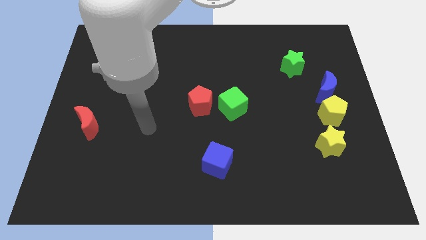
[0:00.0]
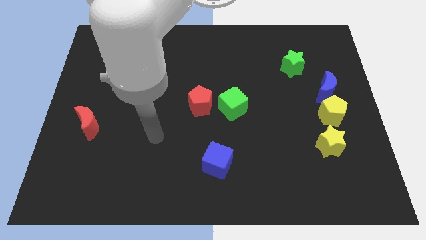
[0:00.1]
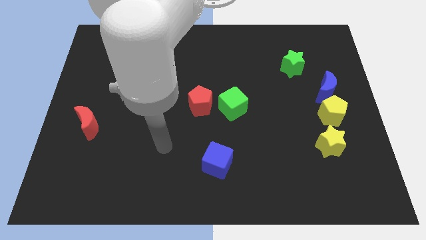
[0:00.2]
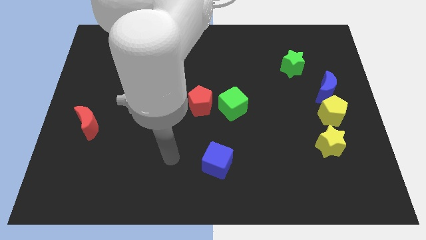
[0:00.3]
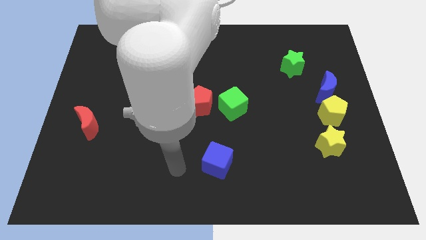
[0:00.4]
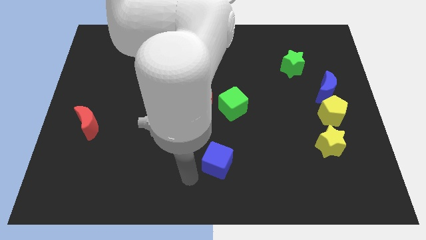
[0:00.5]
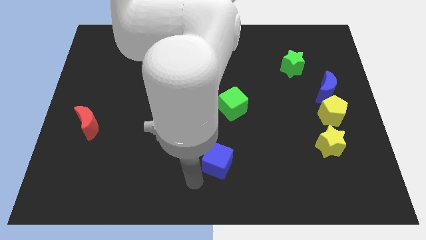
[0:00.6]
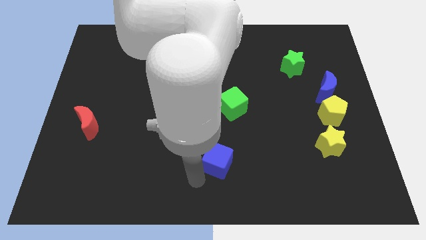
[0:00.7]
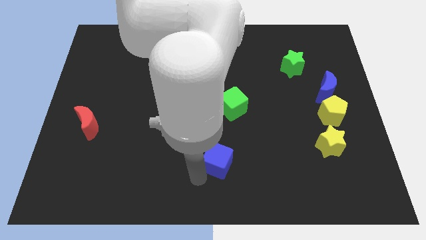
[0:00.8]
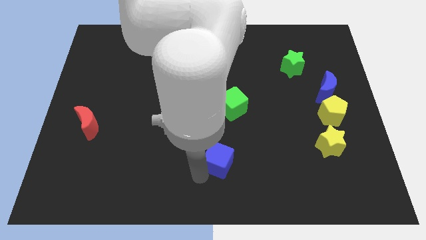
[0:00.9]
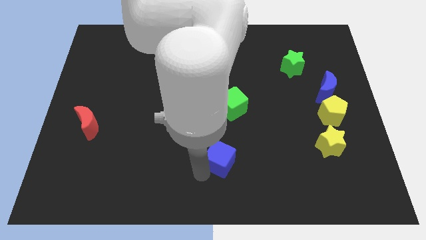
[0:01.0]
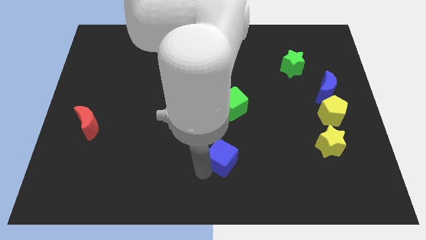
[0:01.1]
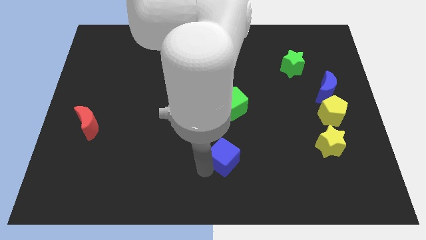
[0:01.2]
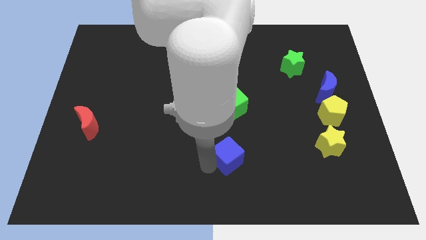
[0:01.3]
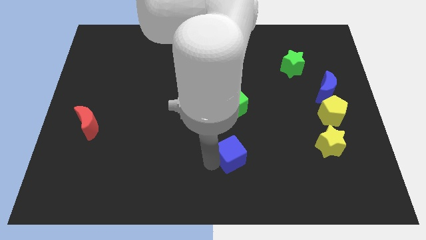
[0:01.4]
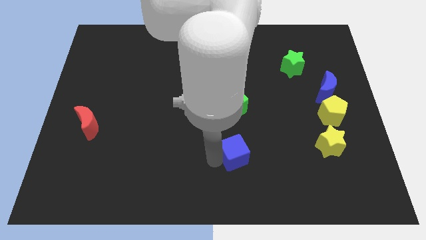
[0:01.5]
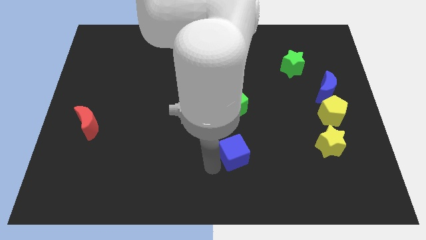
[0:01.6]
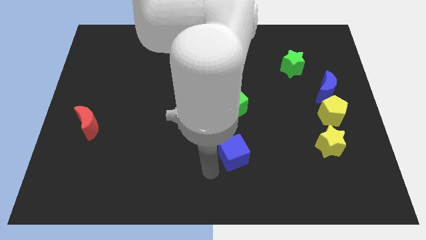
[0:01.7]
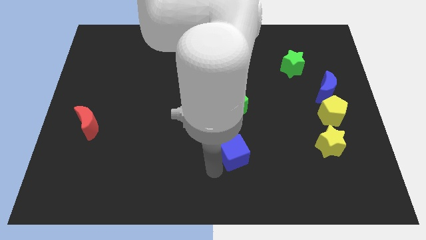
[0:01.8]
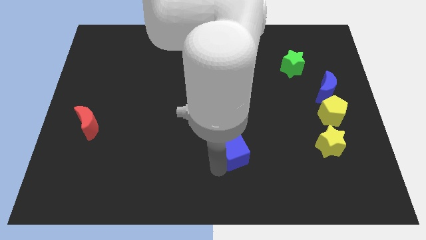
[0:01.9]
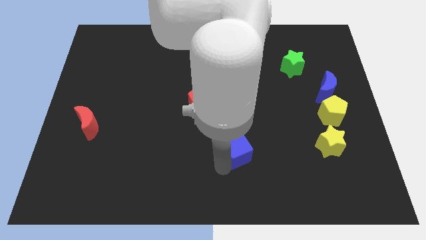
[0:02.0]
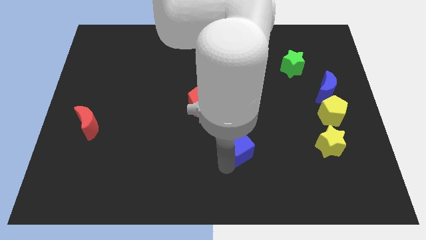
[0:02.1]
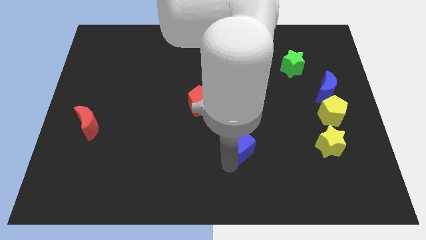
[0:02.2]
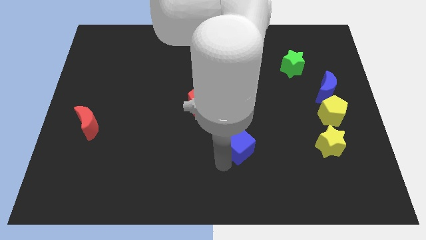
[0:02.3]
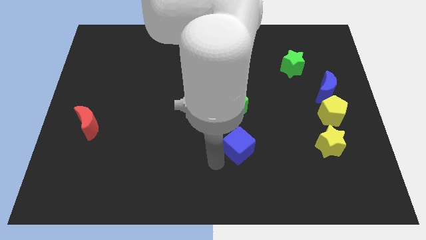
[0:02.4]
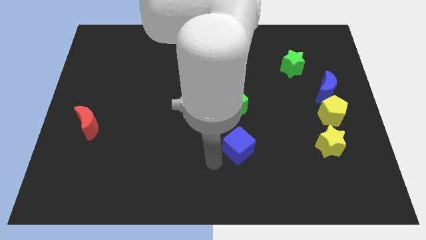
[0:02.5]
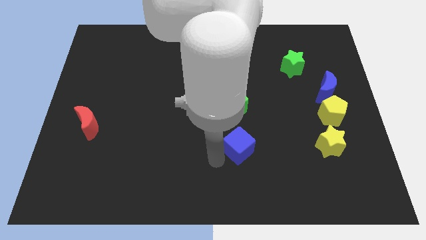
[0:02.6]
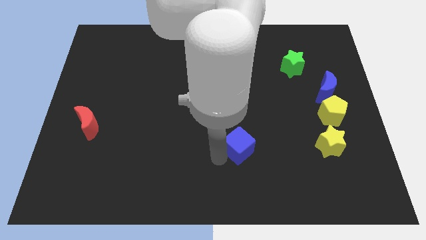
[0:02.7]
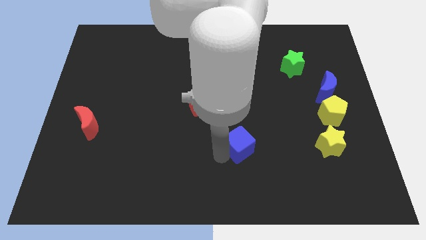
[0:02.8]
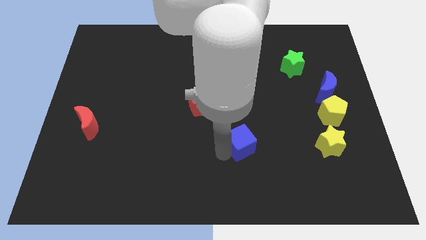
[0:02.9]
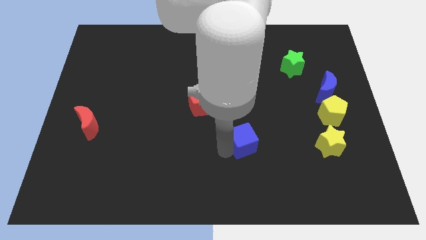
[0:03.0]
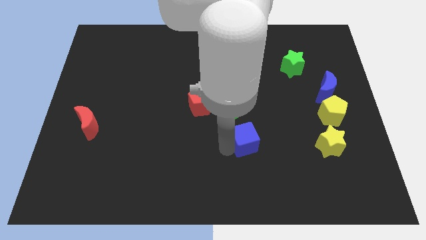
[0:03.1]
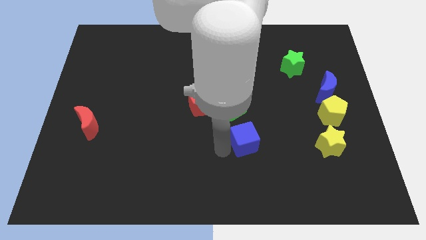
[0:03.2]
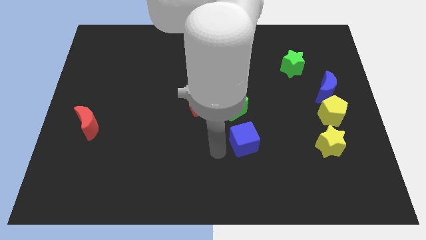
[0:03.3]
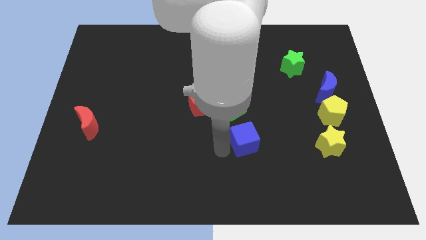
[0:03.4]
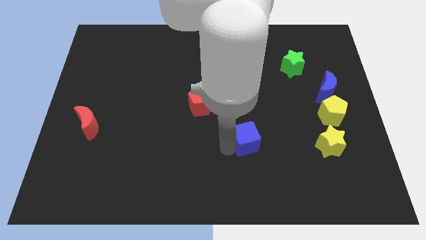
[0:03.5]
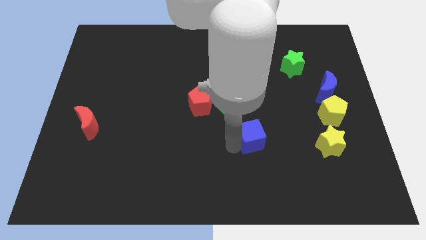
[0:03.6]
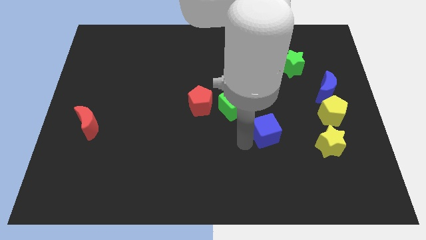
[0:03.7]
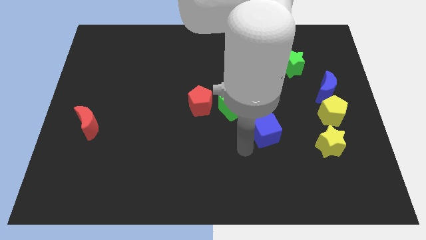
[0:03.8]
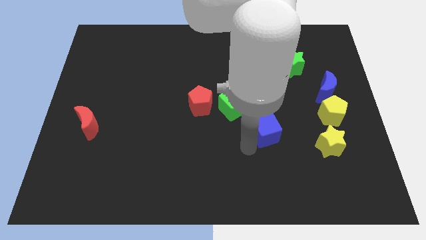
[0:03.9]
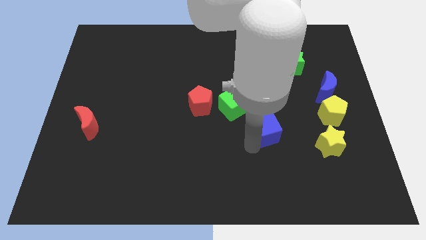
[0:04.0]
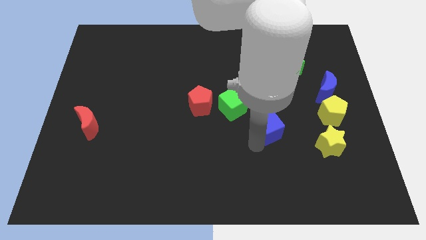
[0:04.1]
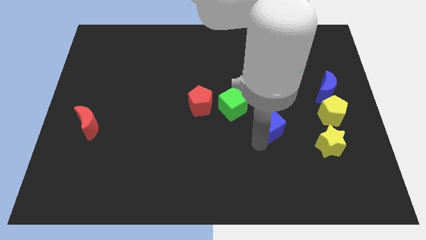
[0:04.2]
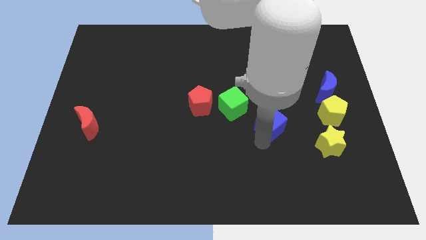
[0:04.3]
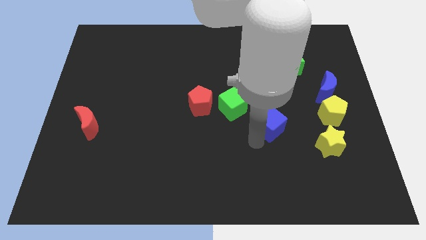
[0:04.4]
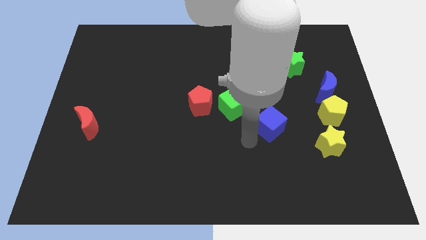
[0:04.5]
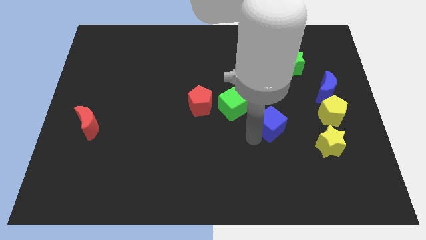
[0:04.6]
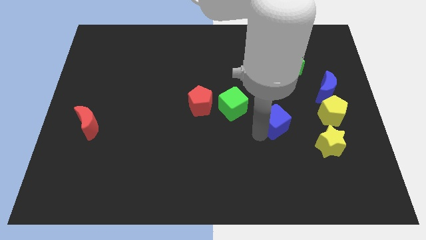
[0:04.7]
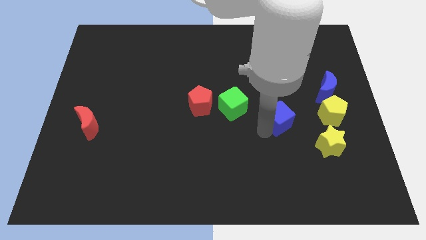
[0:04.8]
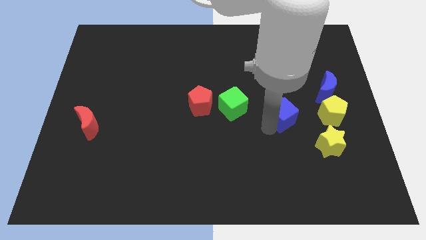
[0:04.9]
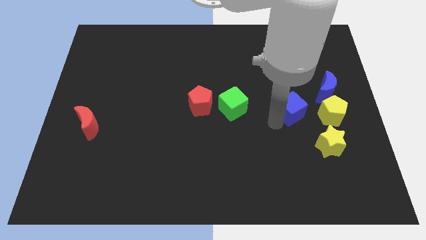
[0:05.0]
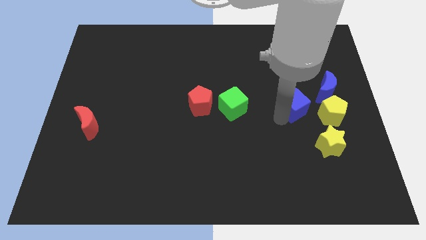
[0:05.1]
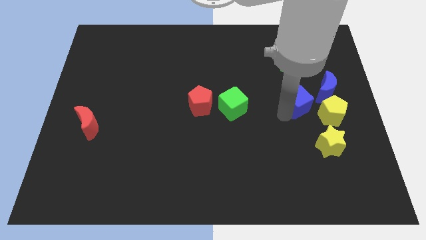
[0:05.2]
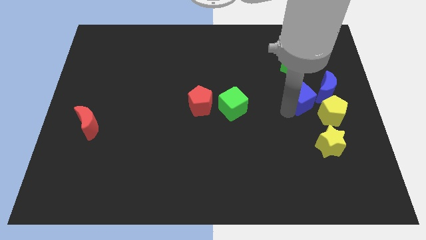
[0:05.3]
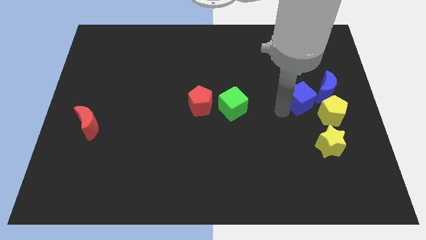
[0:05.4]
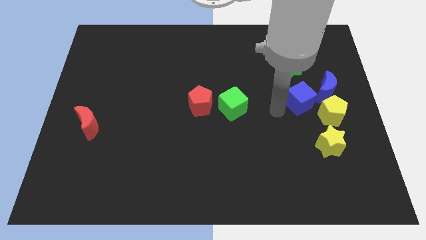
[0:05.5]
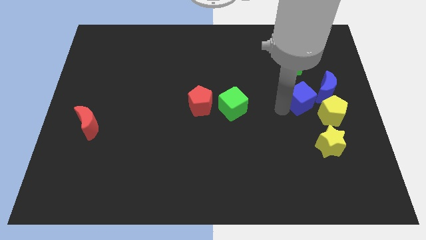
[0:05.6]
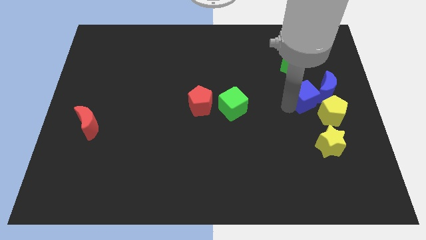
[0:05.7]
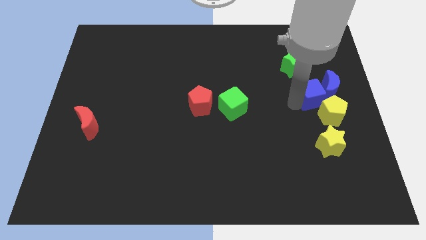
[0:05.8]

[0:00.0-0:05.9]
put the blue cube to the blue moon

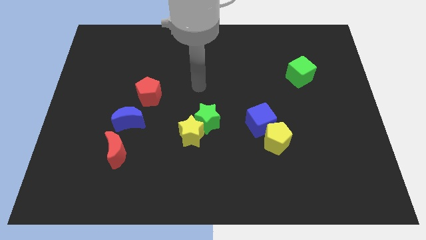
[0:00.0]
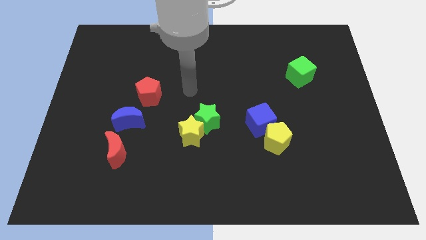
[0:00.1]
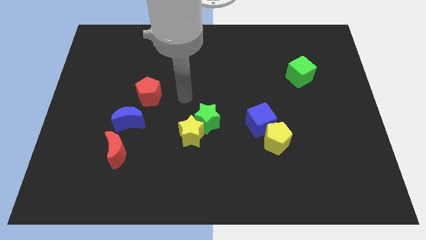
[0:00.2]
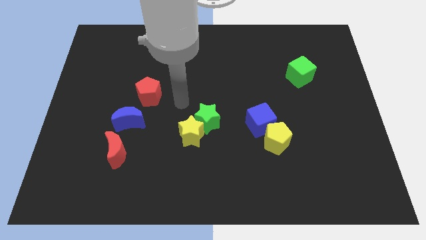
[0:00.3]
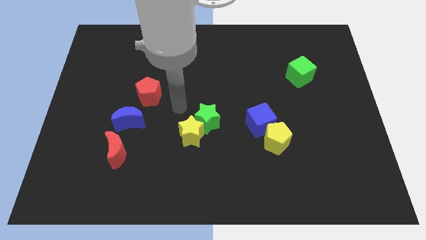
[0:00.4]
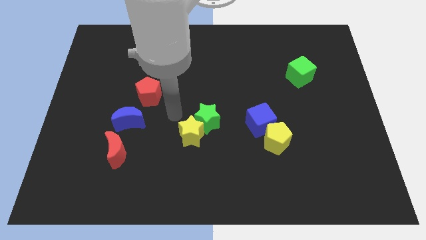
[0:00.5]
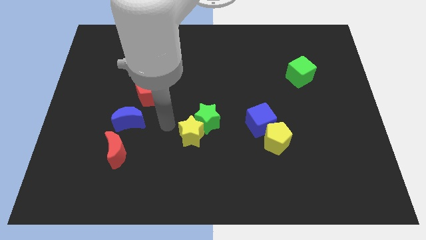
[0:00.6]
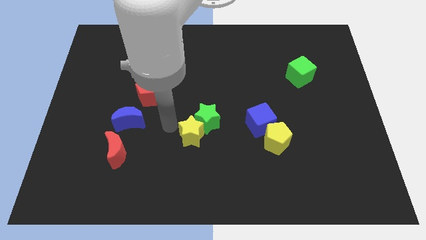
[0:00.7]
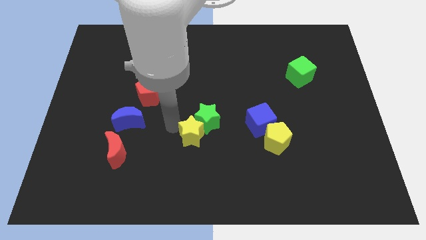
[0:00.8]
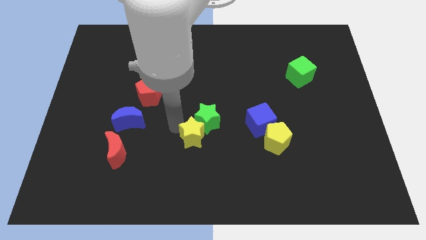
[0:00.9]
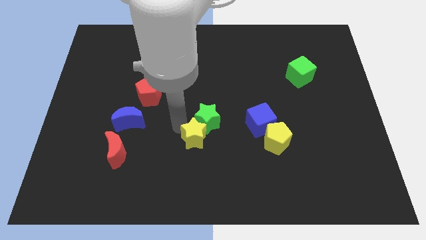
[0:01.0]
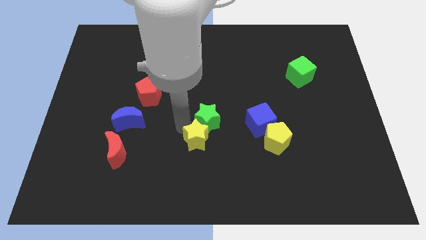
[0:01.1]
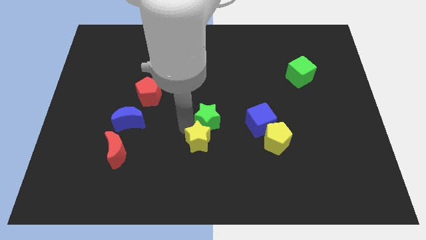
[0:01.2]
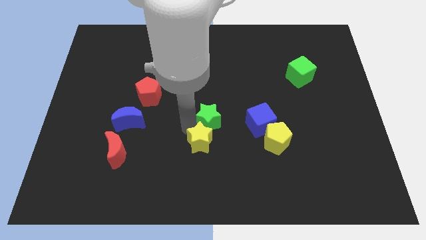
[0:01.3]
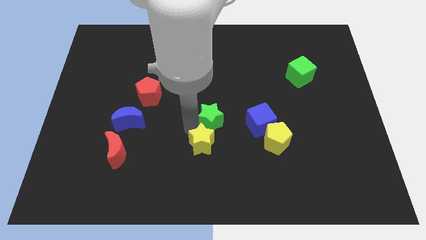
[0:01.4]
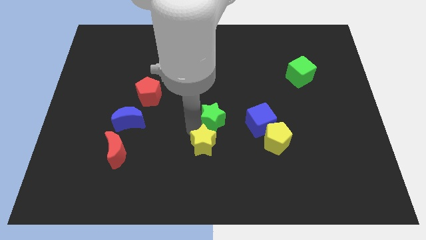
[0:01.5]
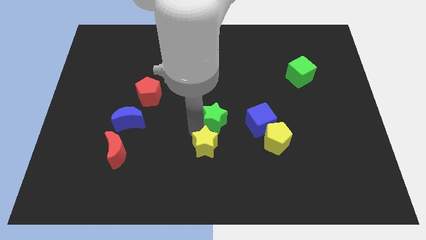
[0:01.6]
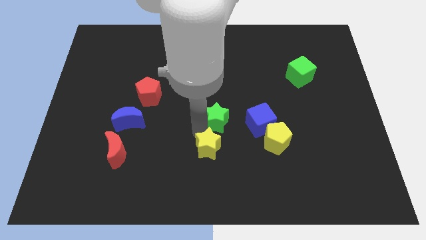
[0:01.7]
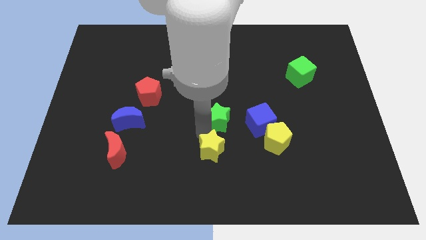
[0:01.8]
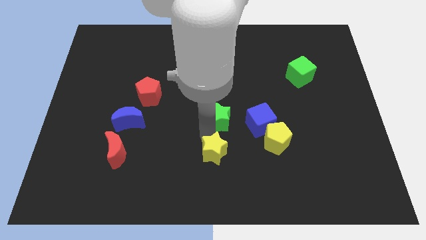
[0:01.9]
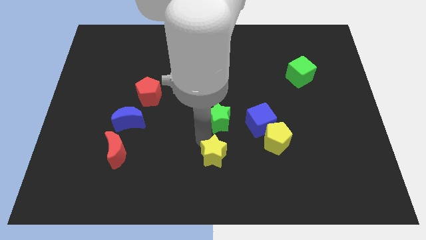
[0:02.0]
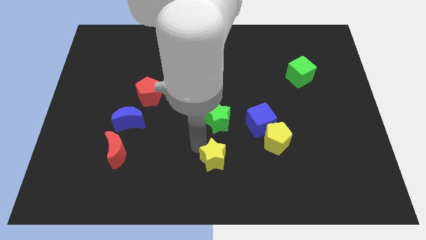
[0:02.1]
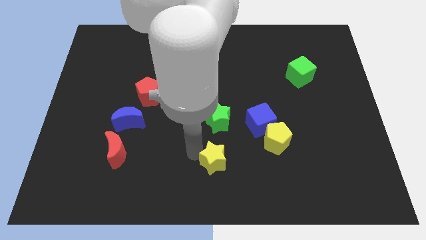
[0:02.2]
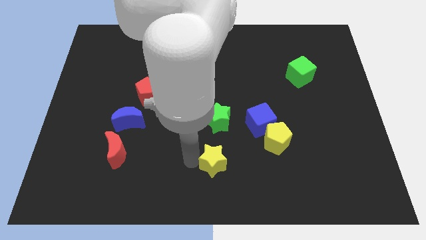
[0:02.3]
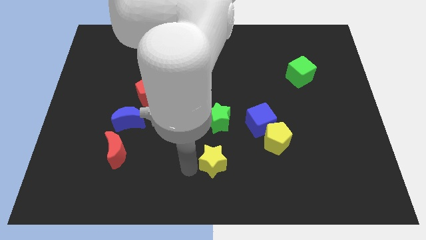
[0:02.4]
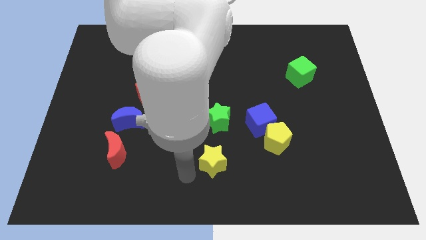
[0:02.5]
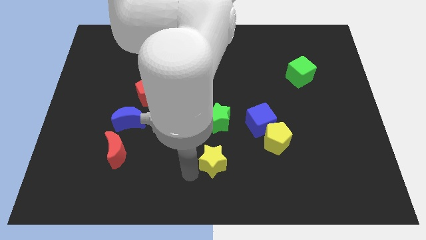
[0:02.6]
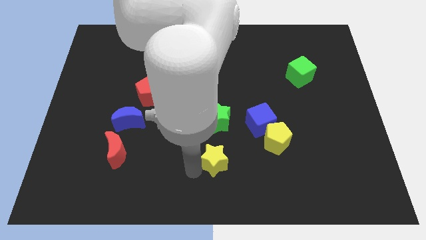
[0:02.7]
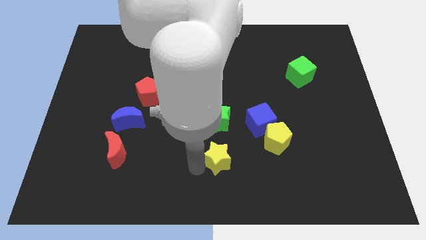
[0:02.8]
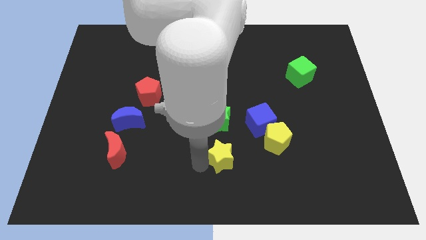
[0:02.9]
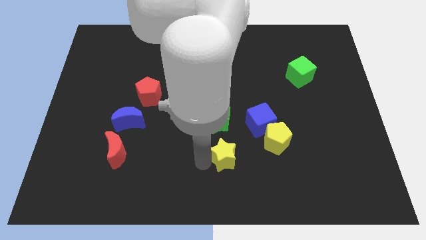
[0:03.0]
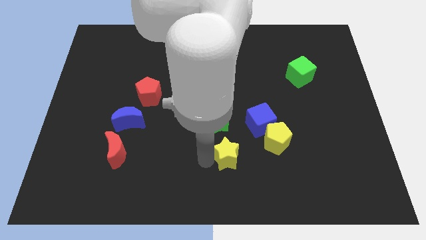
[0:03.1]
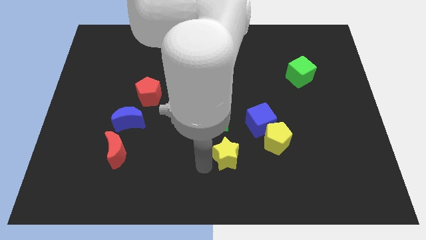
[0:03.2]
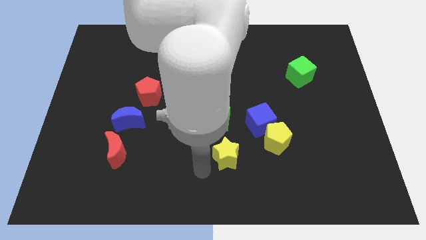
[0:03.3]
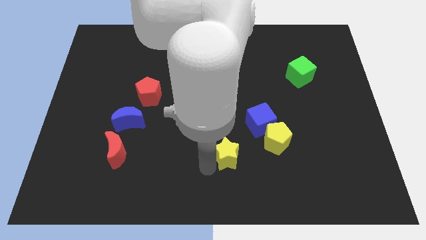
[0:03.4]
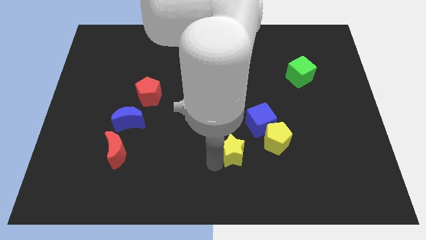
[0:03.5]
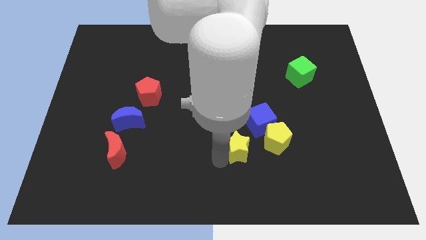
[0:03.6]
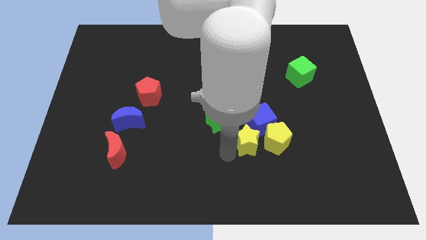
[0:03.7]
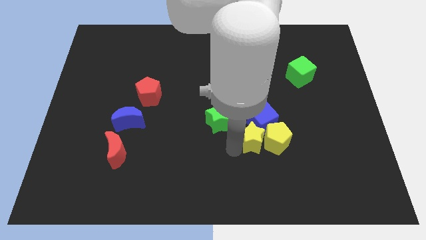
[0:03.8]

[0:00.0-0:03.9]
push the yellow star next to the yellow pentagon
